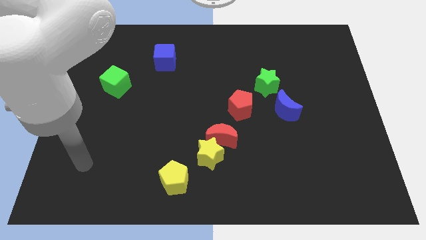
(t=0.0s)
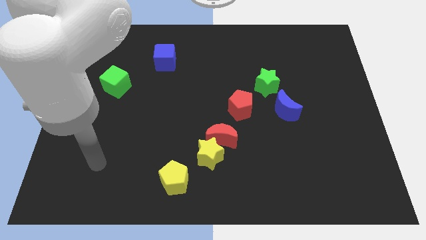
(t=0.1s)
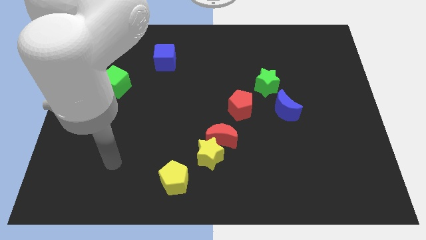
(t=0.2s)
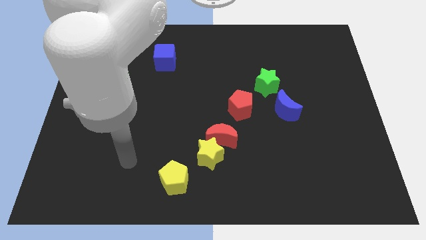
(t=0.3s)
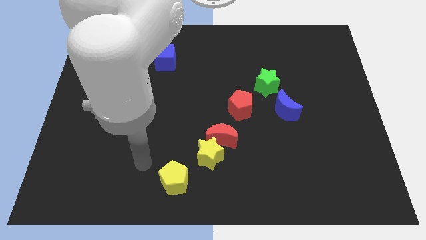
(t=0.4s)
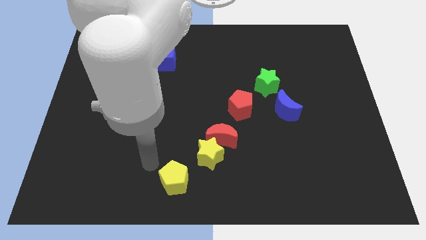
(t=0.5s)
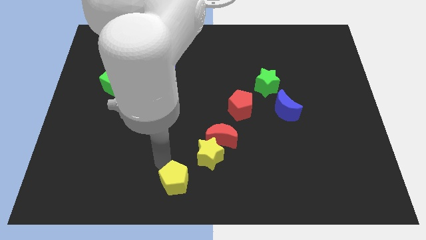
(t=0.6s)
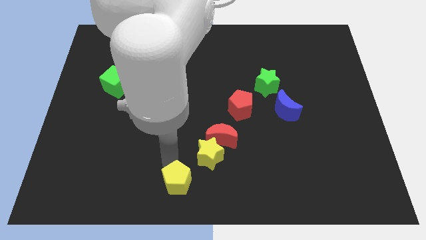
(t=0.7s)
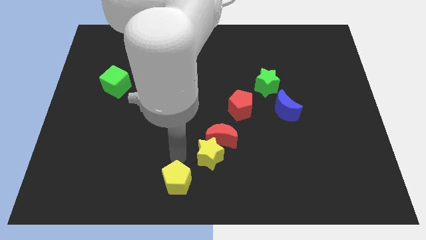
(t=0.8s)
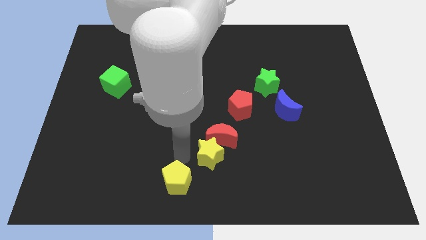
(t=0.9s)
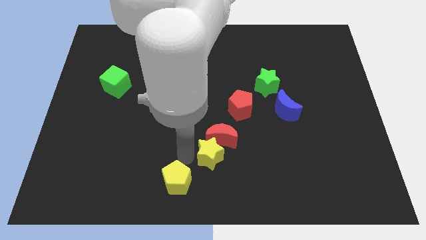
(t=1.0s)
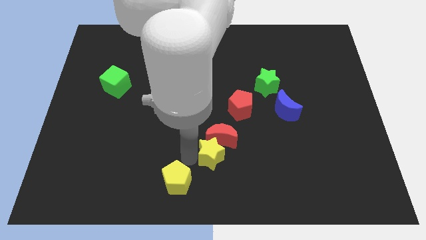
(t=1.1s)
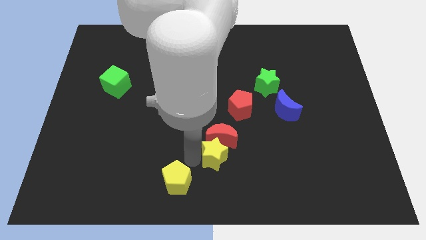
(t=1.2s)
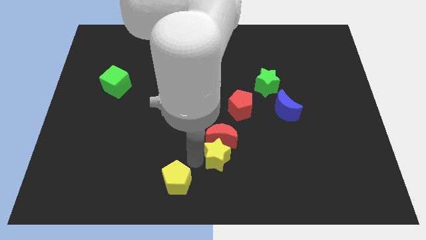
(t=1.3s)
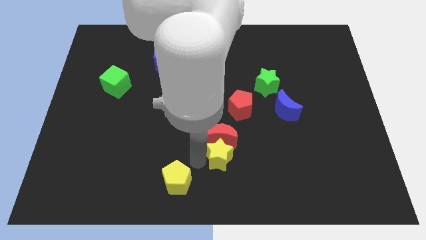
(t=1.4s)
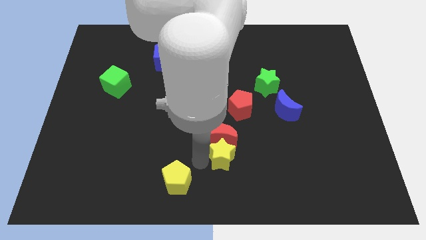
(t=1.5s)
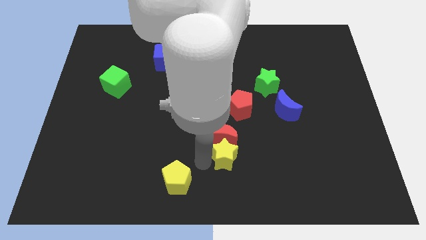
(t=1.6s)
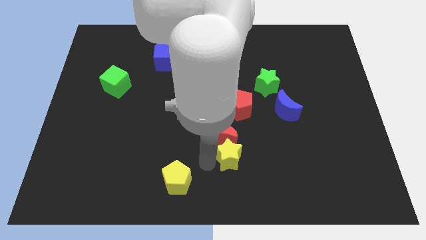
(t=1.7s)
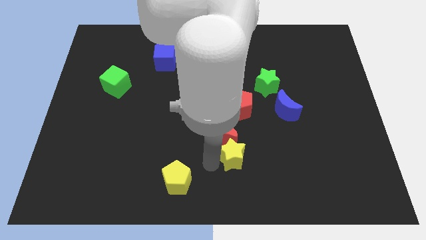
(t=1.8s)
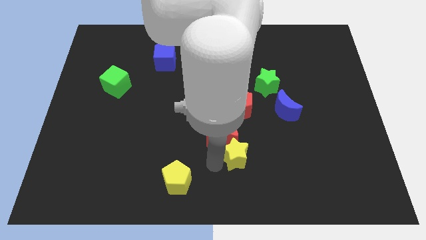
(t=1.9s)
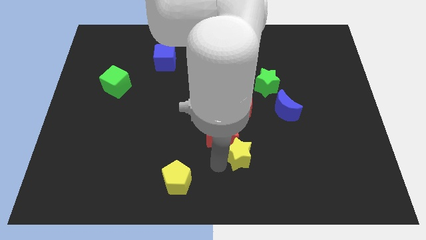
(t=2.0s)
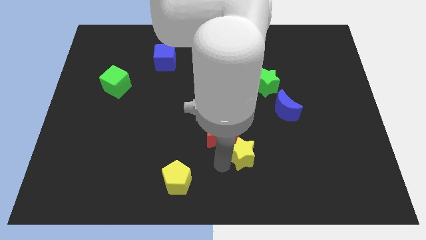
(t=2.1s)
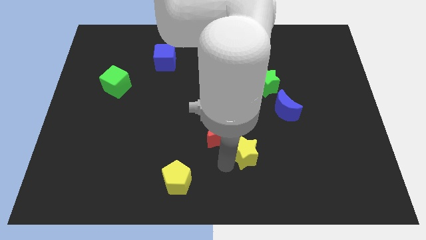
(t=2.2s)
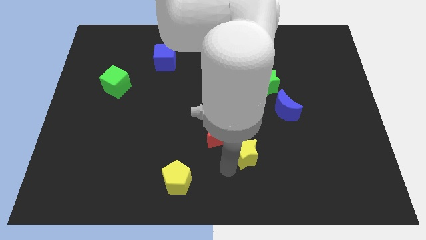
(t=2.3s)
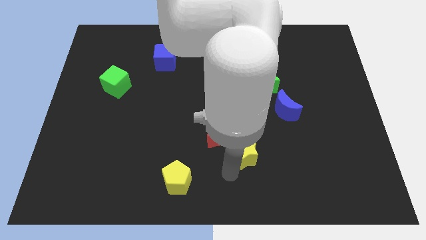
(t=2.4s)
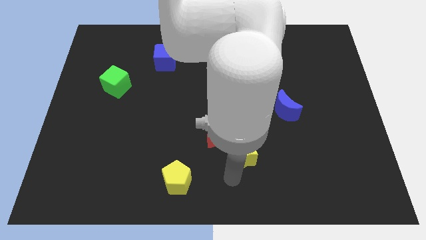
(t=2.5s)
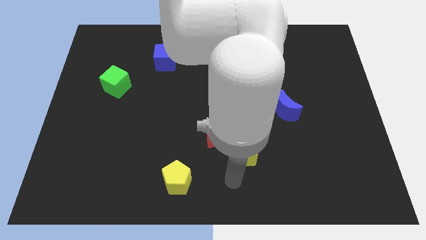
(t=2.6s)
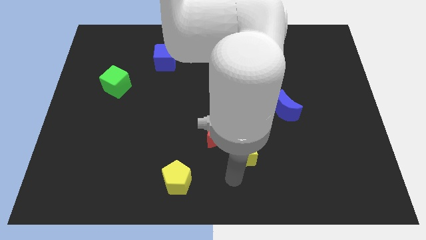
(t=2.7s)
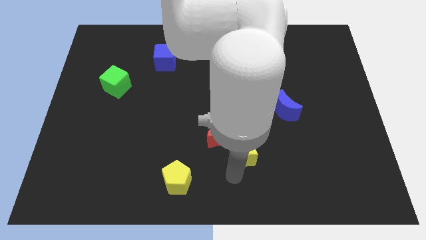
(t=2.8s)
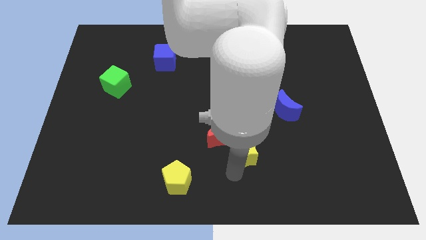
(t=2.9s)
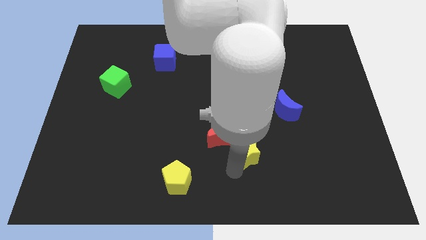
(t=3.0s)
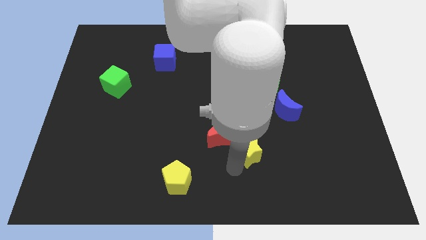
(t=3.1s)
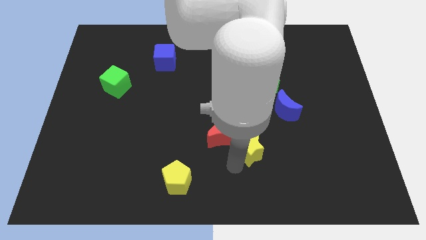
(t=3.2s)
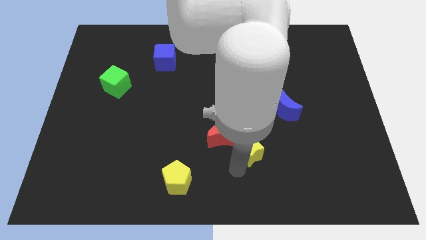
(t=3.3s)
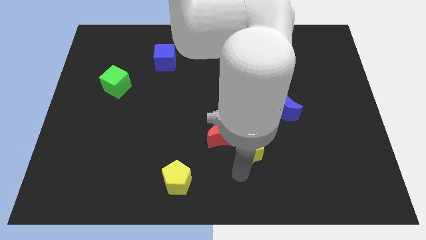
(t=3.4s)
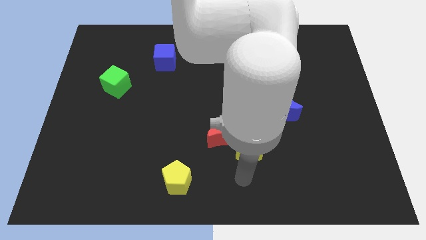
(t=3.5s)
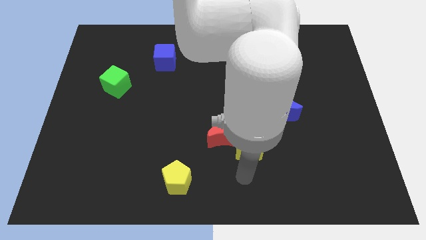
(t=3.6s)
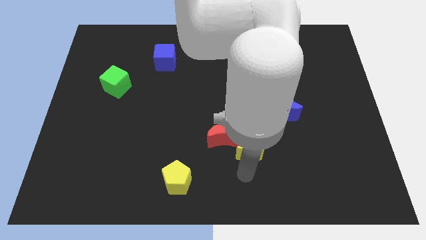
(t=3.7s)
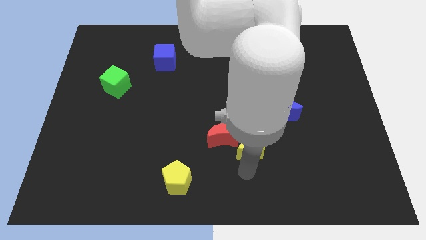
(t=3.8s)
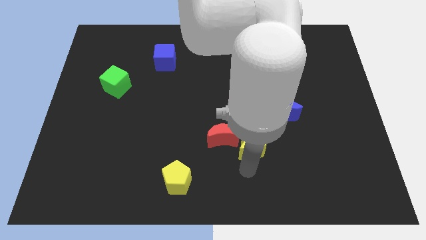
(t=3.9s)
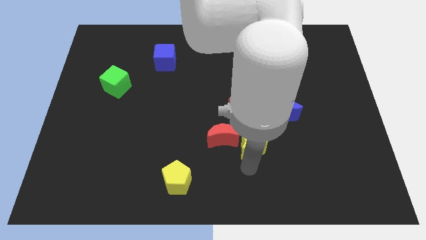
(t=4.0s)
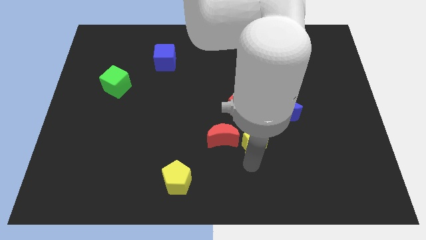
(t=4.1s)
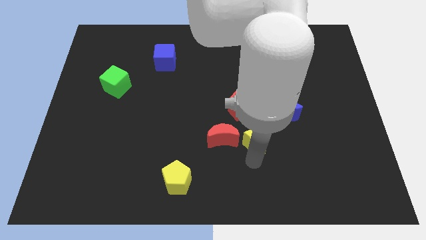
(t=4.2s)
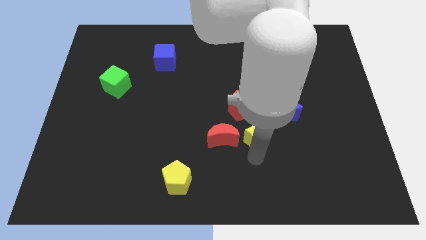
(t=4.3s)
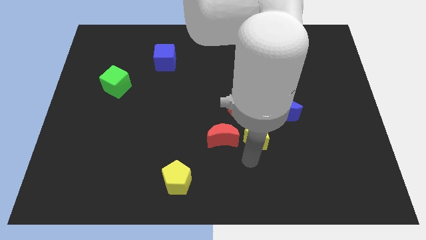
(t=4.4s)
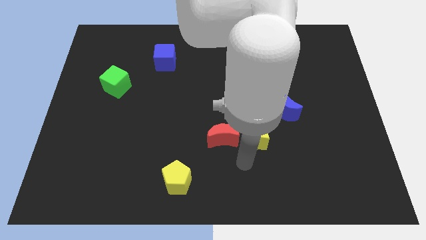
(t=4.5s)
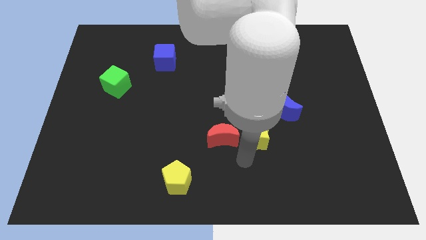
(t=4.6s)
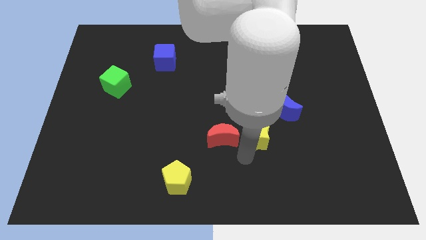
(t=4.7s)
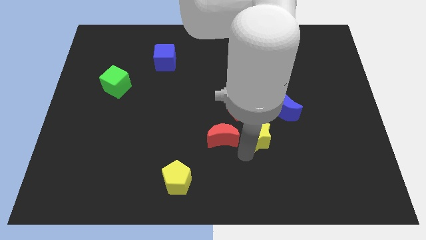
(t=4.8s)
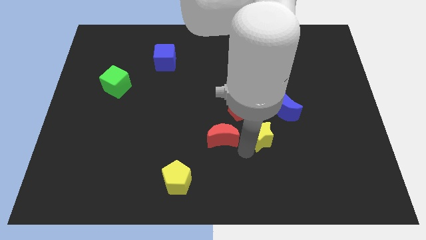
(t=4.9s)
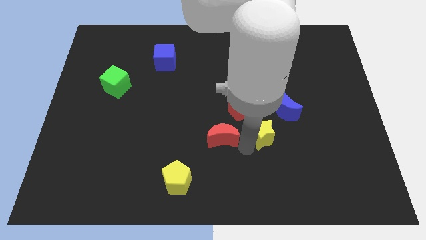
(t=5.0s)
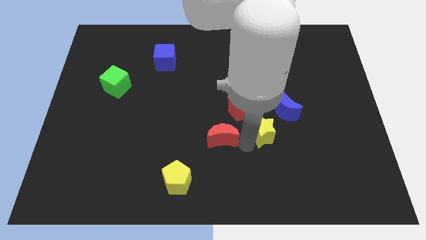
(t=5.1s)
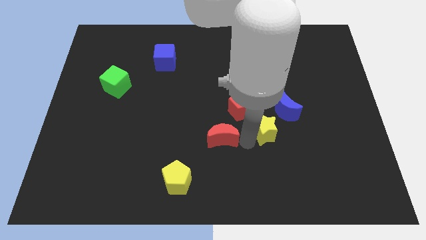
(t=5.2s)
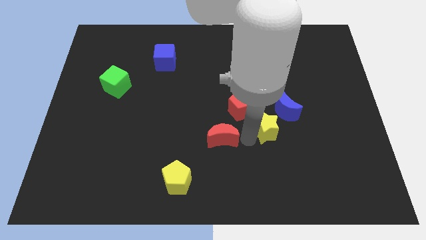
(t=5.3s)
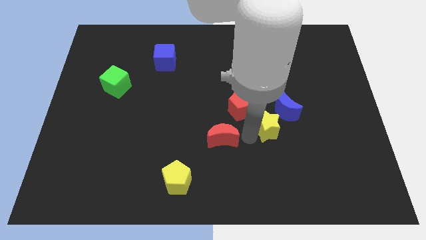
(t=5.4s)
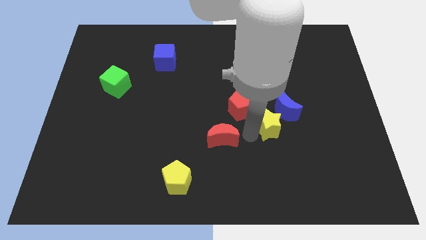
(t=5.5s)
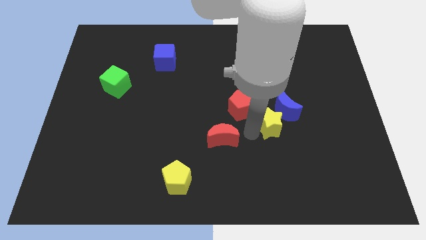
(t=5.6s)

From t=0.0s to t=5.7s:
put the yellow star towards the blue moon

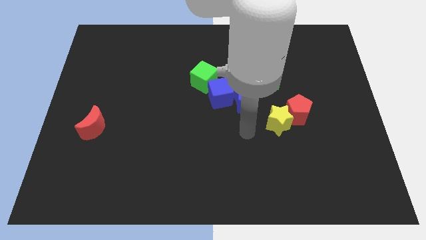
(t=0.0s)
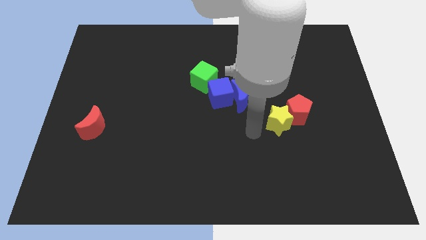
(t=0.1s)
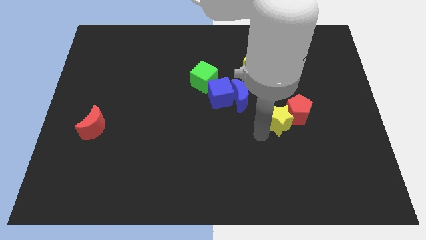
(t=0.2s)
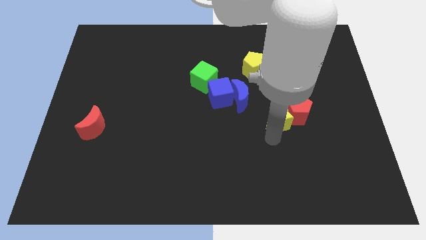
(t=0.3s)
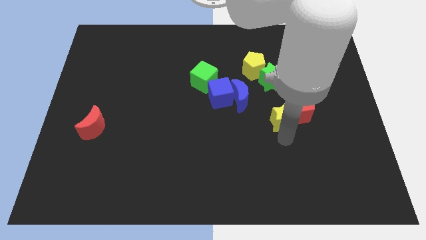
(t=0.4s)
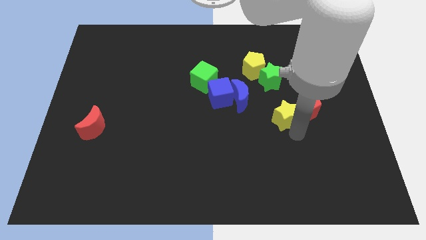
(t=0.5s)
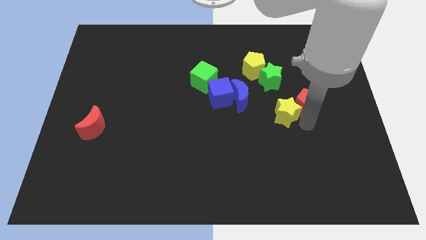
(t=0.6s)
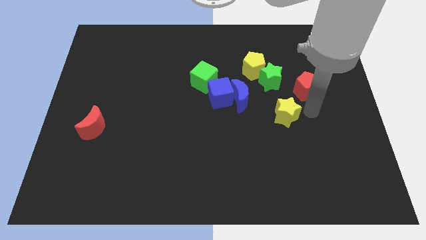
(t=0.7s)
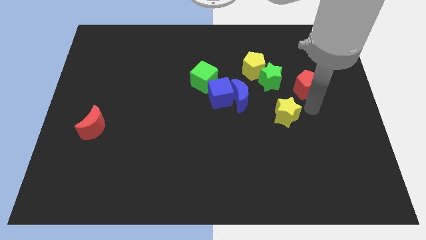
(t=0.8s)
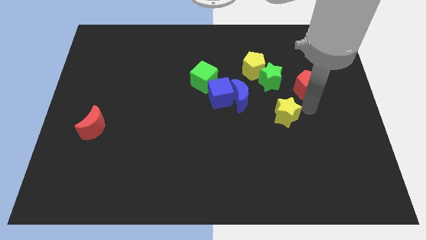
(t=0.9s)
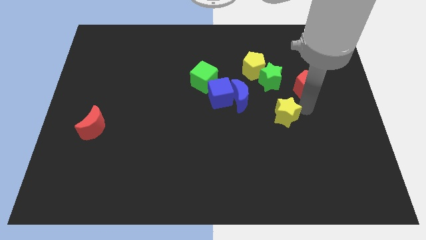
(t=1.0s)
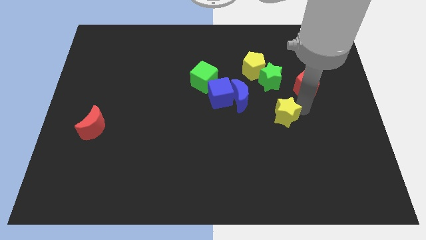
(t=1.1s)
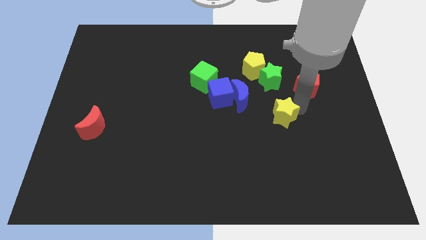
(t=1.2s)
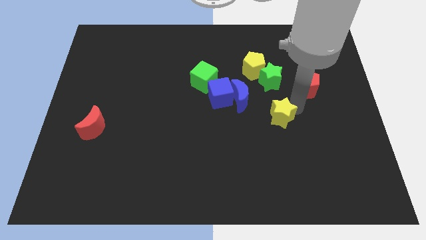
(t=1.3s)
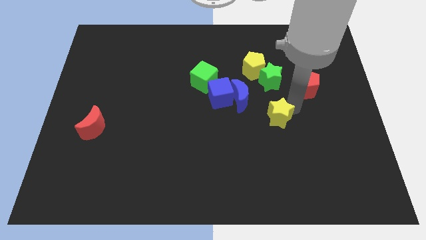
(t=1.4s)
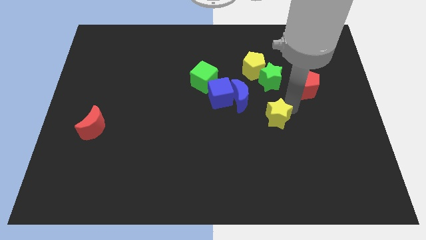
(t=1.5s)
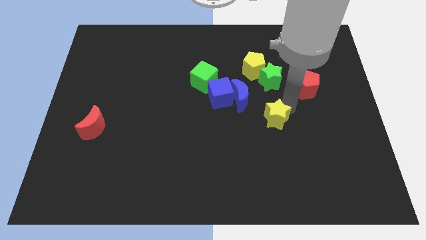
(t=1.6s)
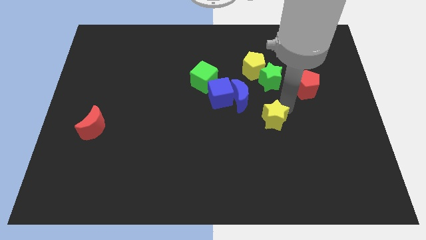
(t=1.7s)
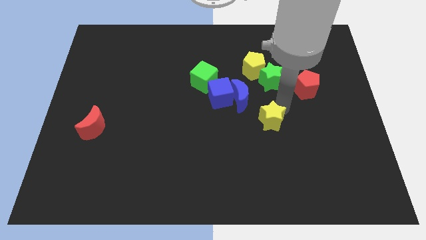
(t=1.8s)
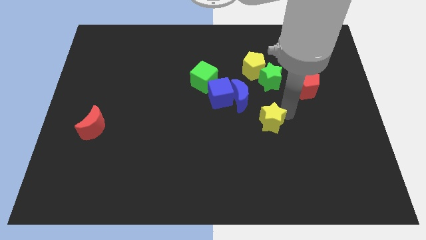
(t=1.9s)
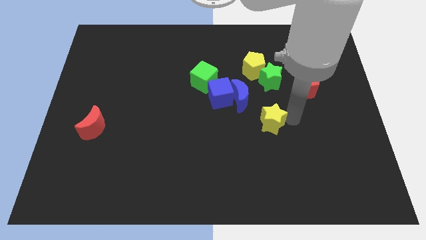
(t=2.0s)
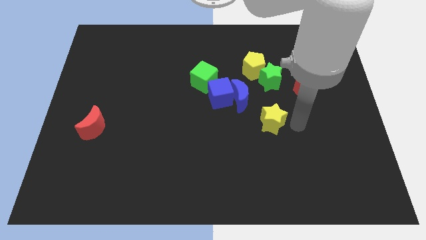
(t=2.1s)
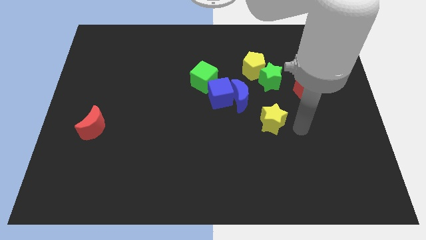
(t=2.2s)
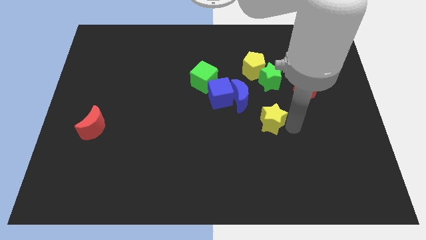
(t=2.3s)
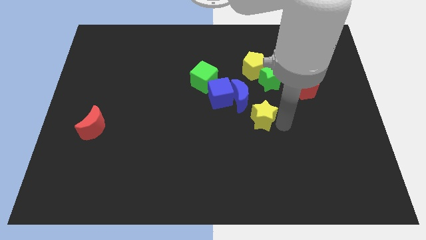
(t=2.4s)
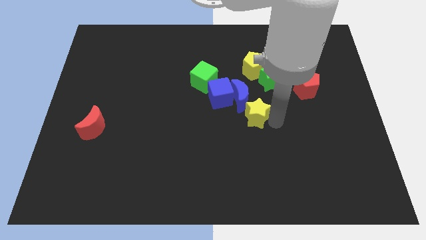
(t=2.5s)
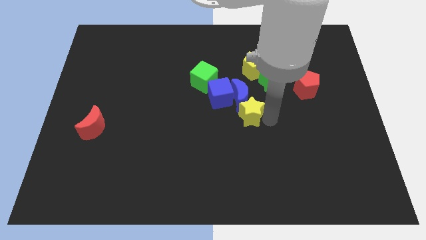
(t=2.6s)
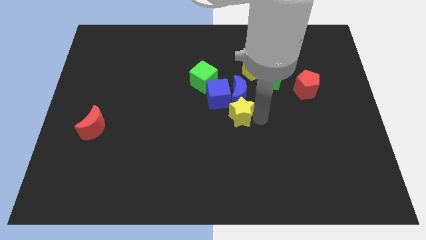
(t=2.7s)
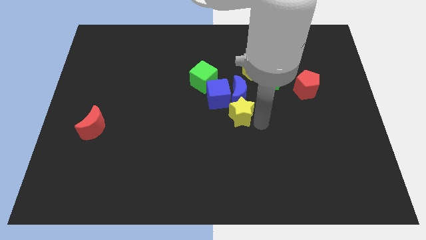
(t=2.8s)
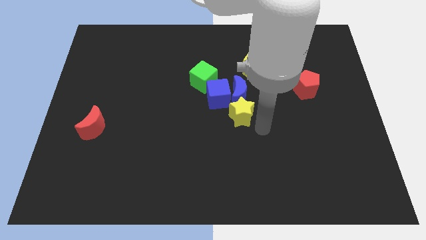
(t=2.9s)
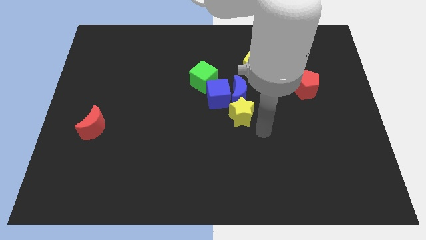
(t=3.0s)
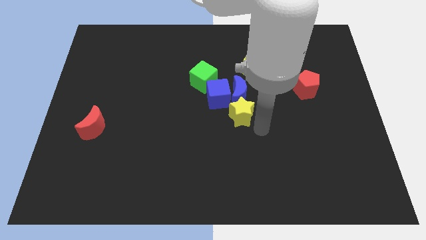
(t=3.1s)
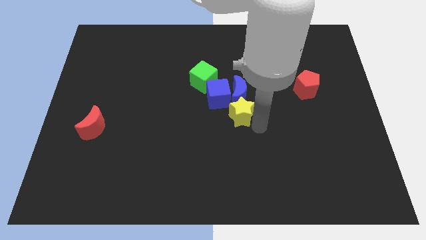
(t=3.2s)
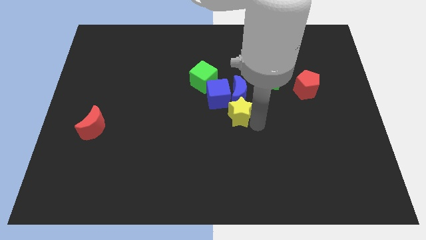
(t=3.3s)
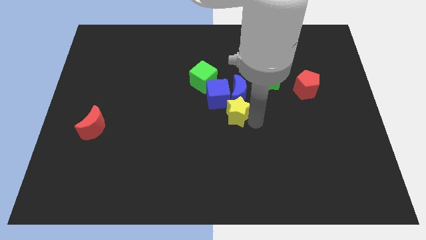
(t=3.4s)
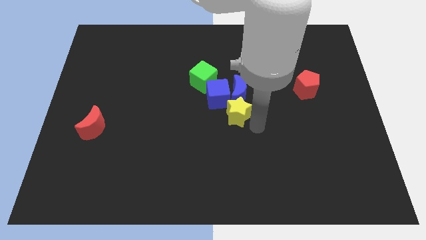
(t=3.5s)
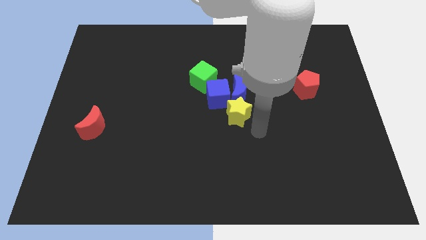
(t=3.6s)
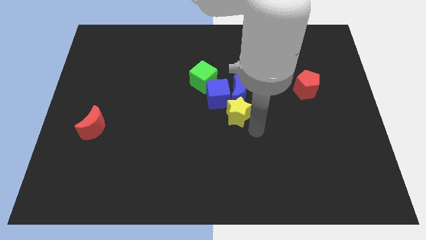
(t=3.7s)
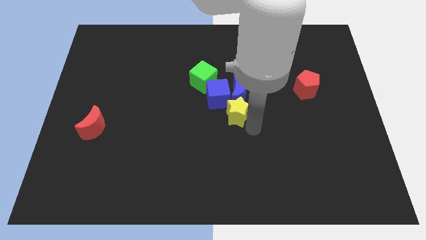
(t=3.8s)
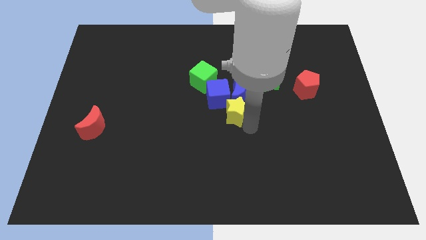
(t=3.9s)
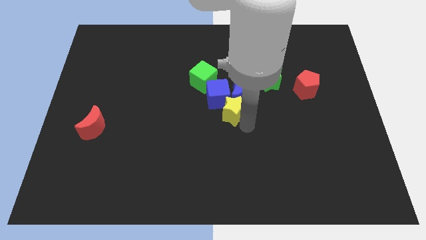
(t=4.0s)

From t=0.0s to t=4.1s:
put the yellow star towards the blue cube
